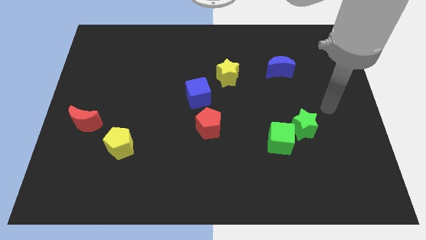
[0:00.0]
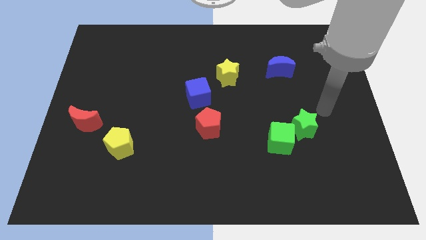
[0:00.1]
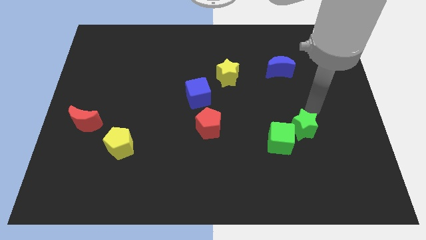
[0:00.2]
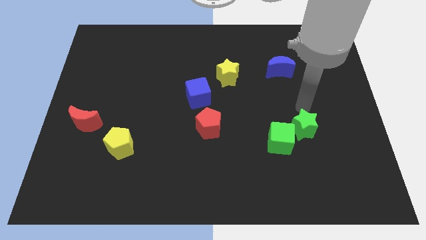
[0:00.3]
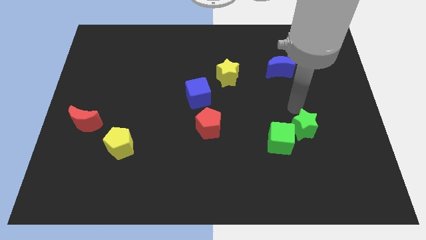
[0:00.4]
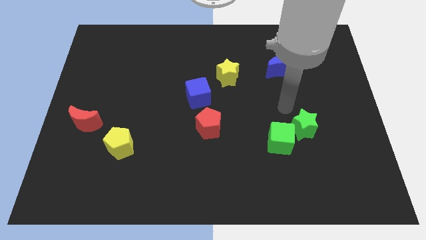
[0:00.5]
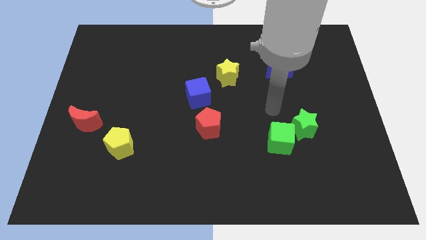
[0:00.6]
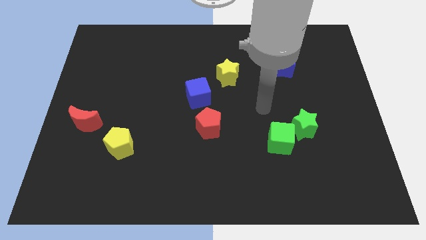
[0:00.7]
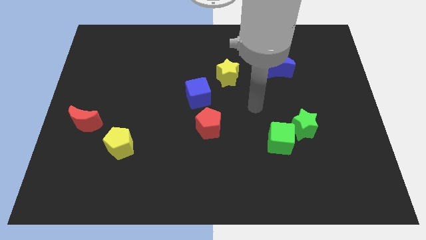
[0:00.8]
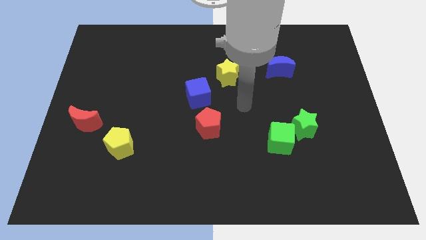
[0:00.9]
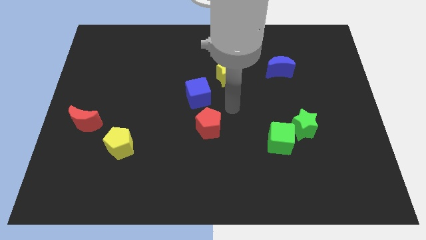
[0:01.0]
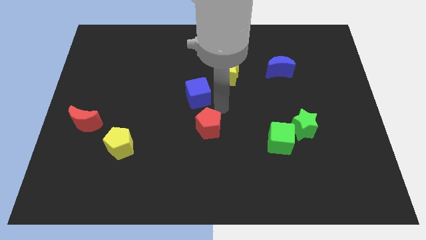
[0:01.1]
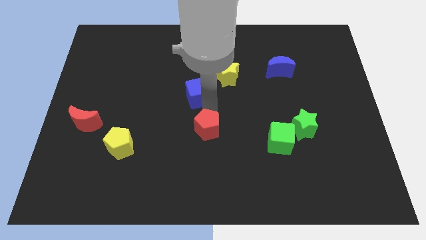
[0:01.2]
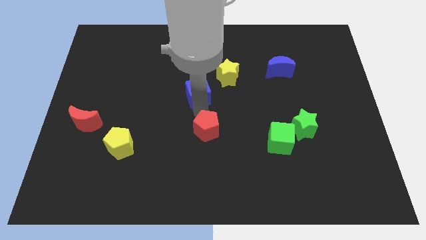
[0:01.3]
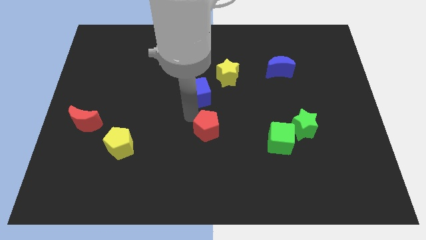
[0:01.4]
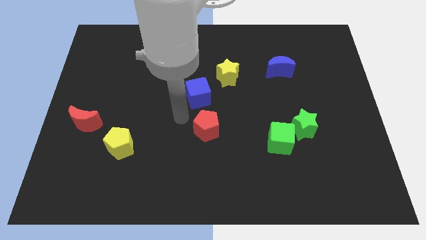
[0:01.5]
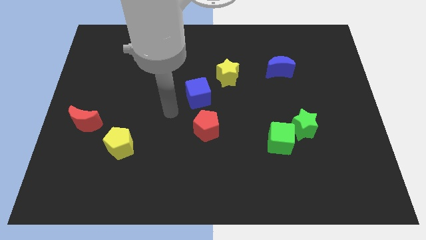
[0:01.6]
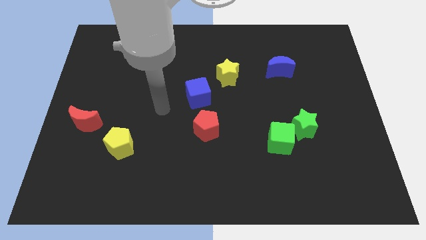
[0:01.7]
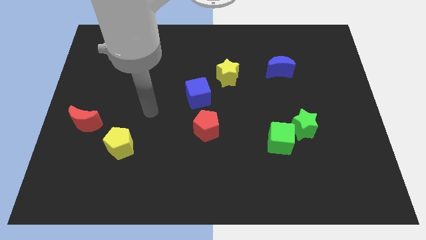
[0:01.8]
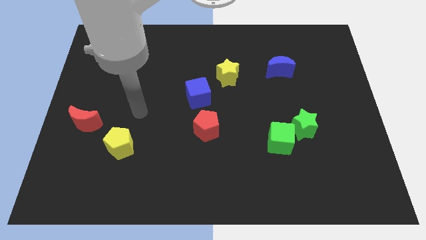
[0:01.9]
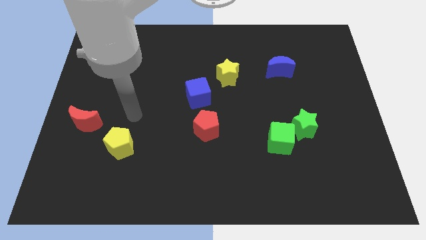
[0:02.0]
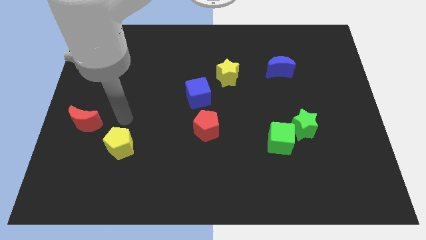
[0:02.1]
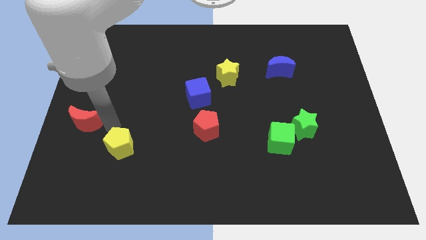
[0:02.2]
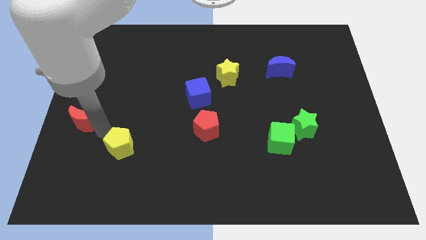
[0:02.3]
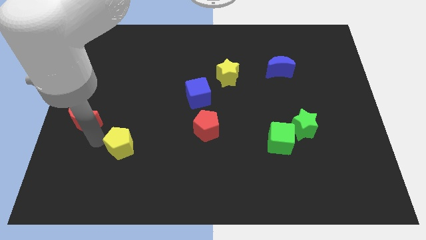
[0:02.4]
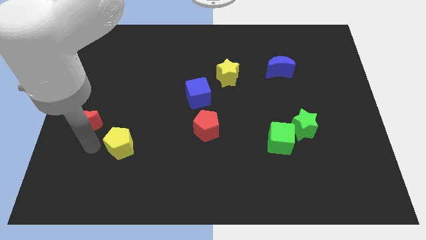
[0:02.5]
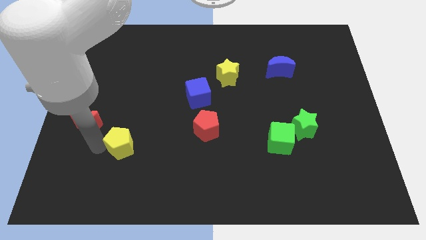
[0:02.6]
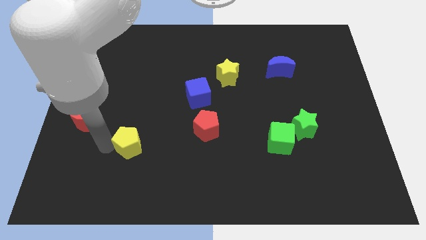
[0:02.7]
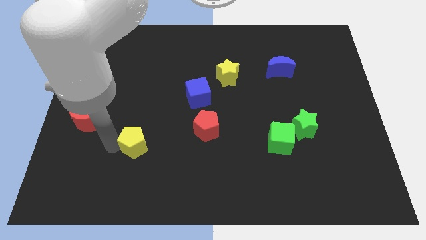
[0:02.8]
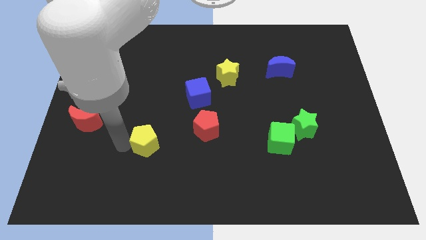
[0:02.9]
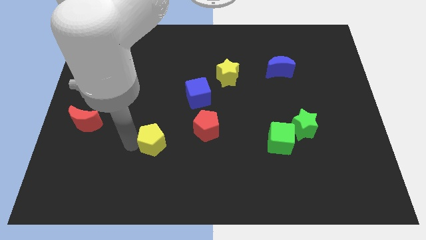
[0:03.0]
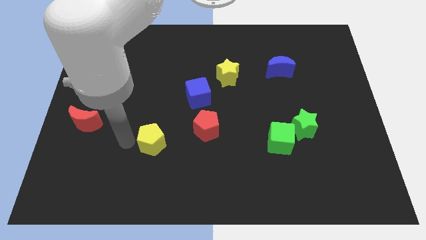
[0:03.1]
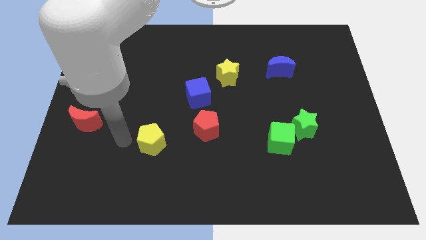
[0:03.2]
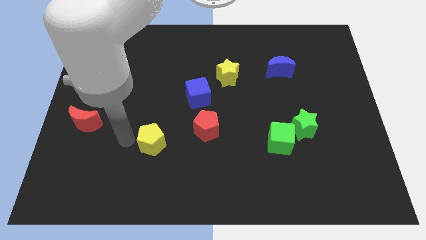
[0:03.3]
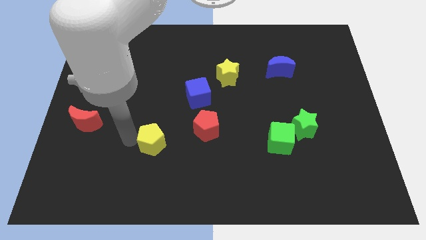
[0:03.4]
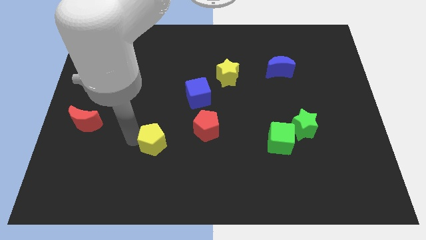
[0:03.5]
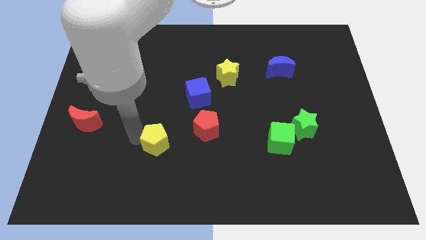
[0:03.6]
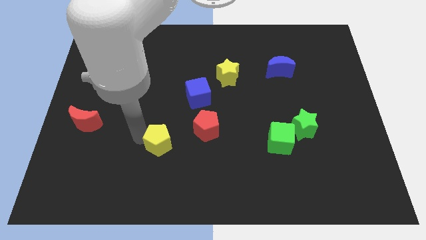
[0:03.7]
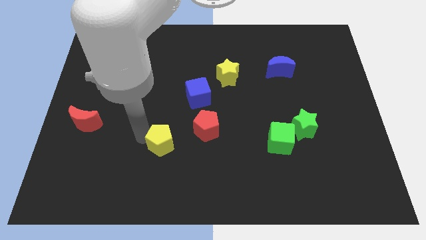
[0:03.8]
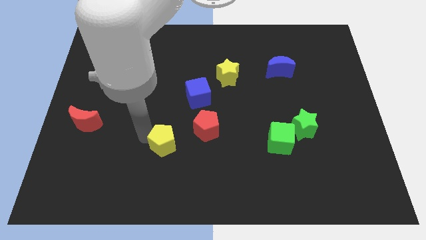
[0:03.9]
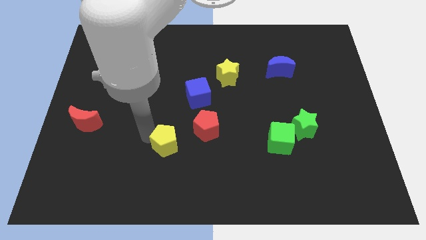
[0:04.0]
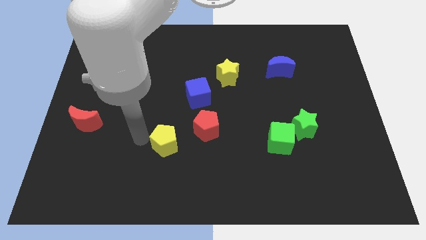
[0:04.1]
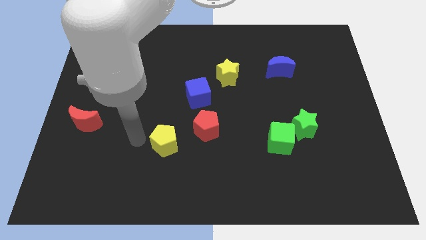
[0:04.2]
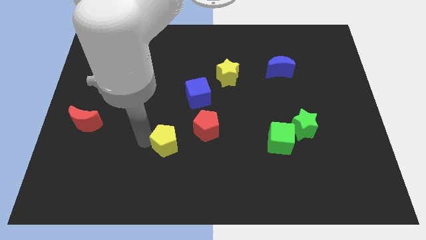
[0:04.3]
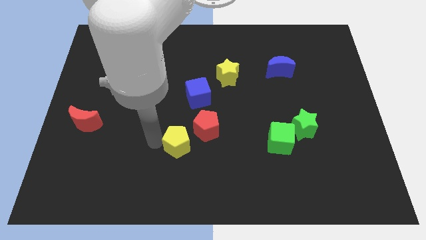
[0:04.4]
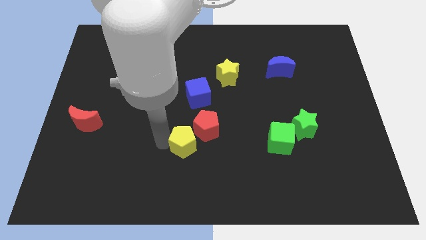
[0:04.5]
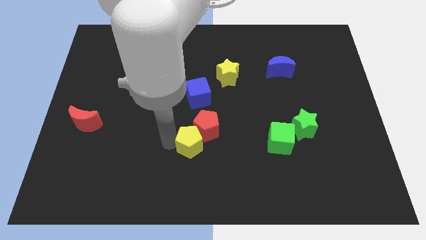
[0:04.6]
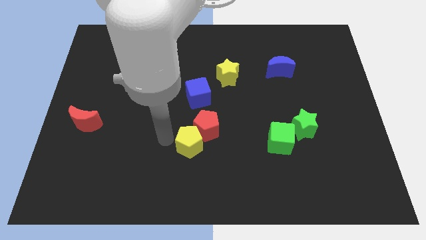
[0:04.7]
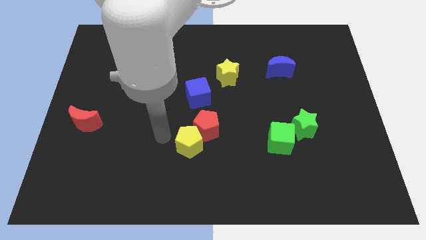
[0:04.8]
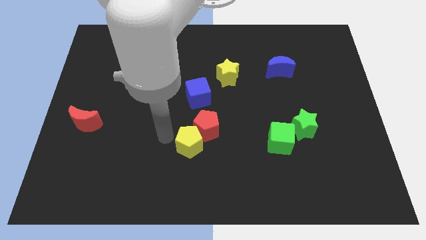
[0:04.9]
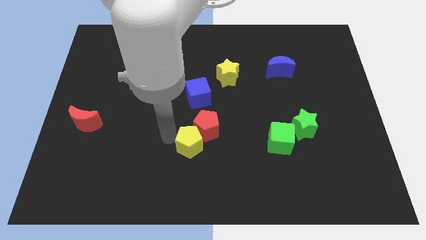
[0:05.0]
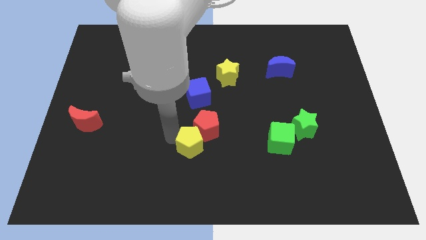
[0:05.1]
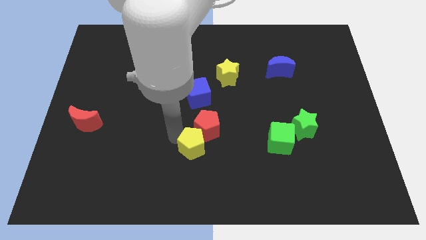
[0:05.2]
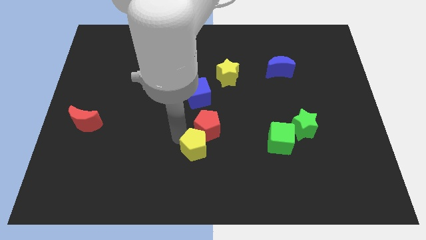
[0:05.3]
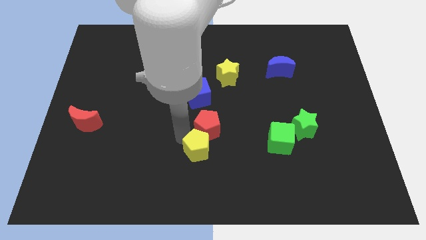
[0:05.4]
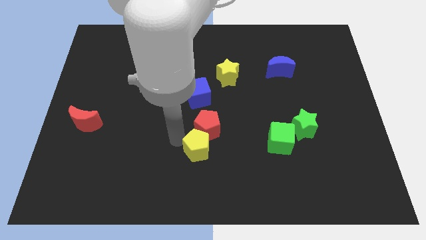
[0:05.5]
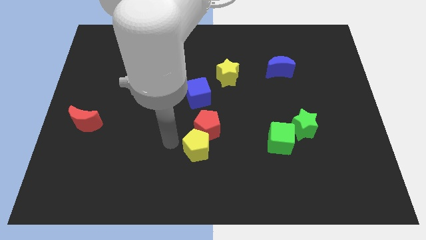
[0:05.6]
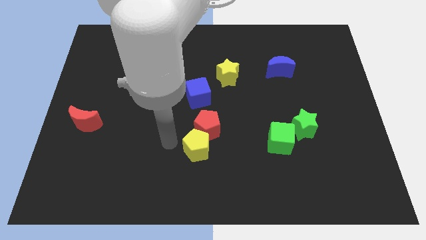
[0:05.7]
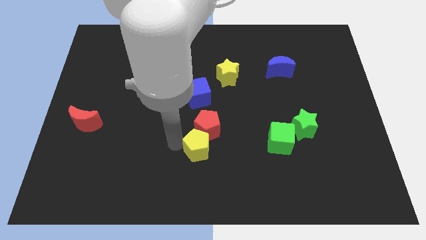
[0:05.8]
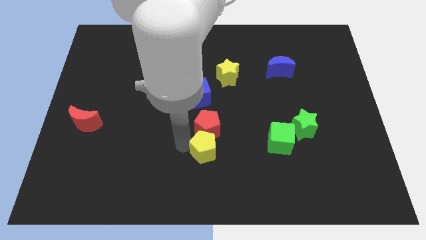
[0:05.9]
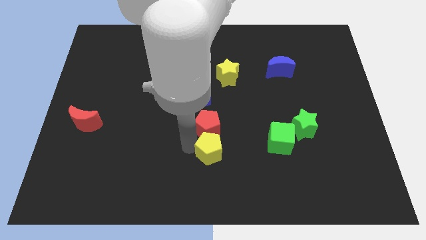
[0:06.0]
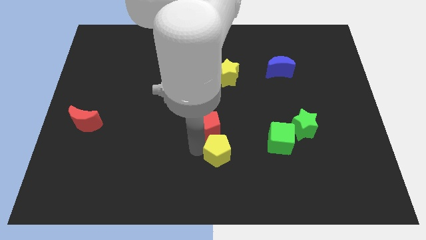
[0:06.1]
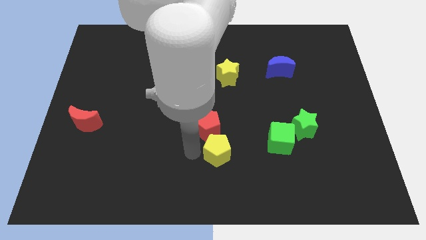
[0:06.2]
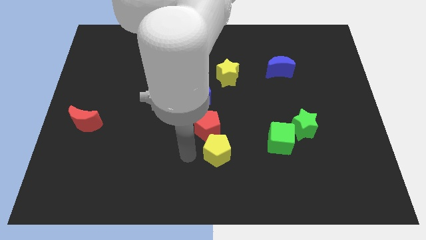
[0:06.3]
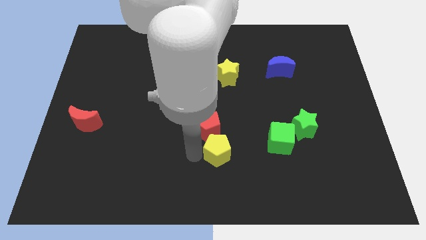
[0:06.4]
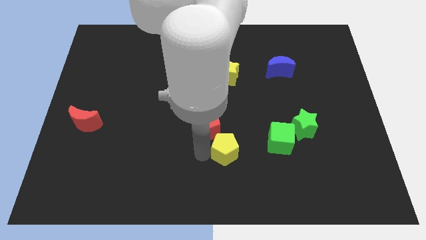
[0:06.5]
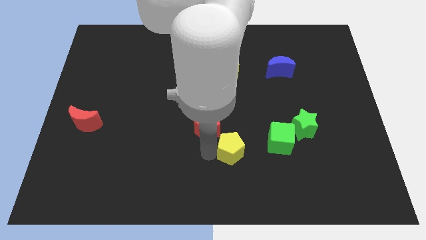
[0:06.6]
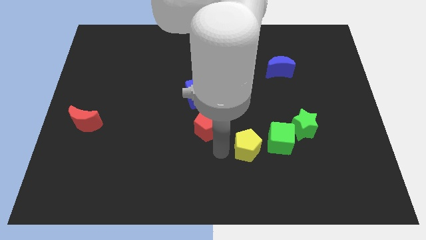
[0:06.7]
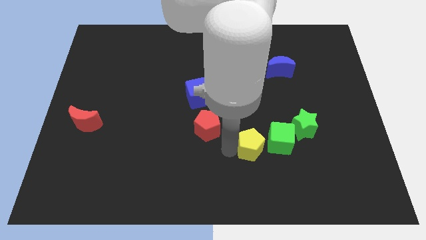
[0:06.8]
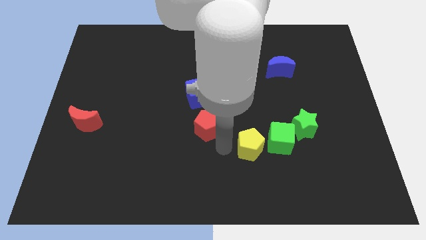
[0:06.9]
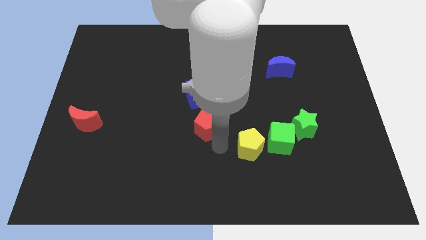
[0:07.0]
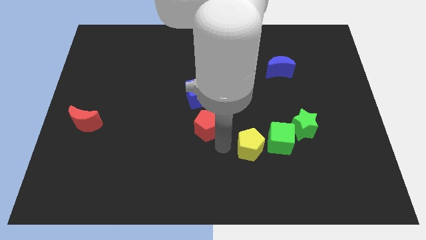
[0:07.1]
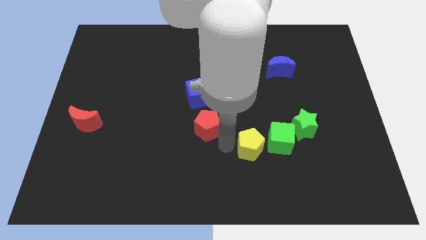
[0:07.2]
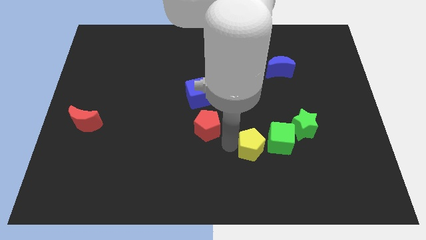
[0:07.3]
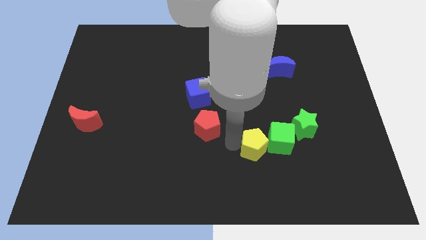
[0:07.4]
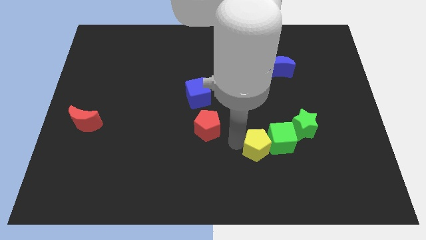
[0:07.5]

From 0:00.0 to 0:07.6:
push the yellow pentagon diagonally down and to the left of the green star
